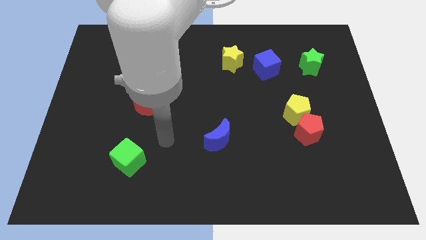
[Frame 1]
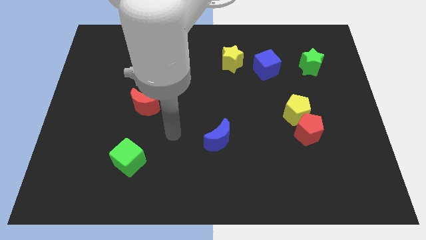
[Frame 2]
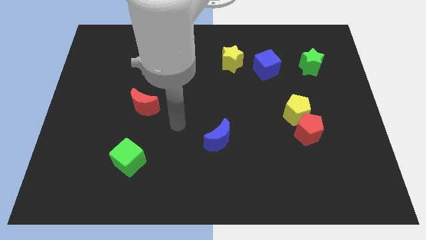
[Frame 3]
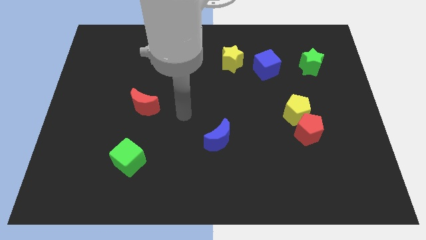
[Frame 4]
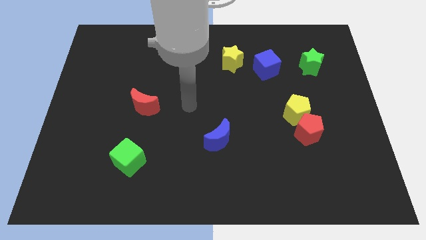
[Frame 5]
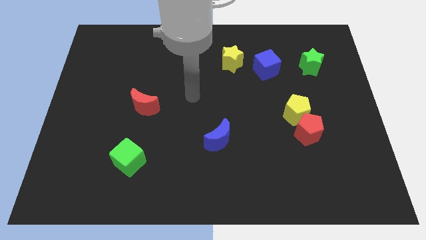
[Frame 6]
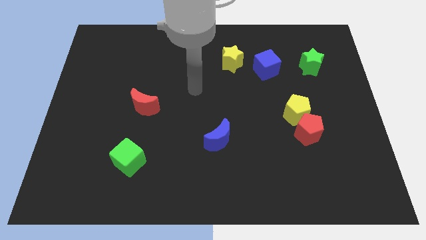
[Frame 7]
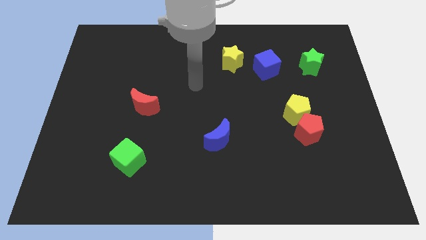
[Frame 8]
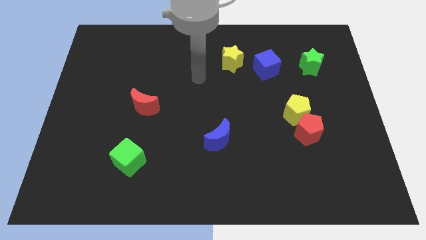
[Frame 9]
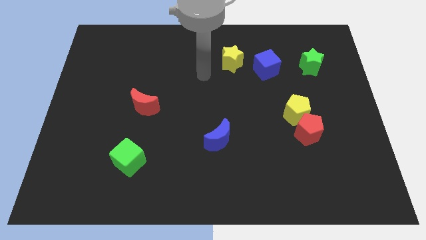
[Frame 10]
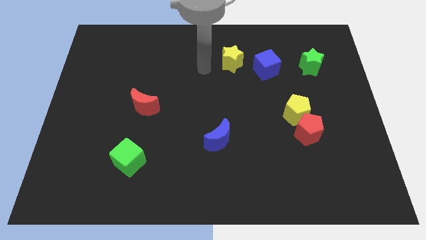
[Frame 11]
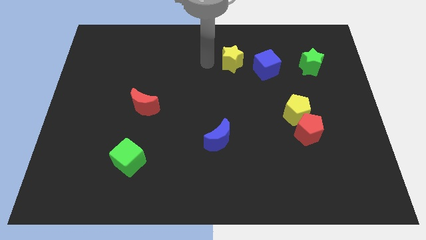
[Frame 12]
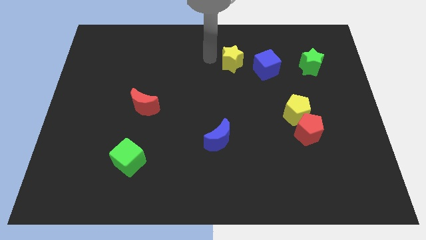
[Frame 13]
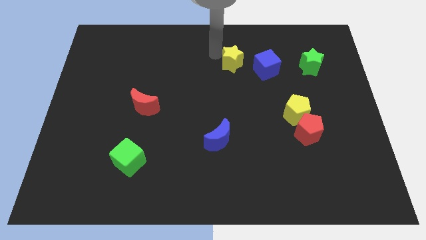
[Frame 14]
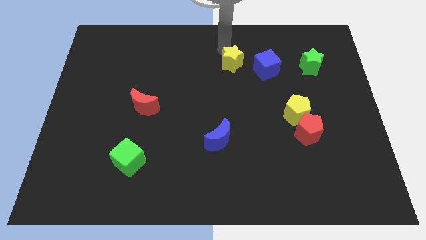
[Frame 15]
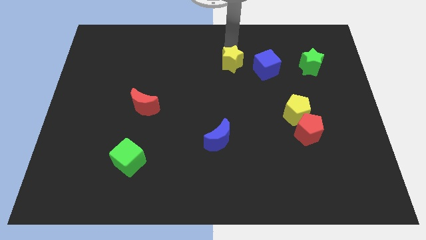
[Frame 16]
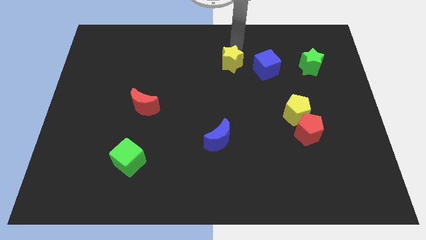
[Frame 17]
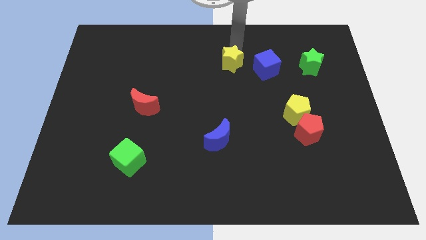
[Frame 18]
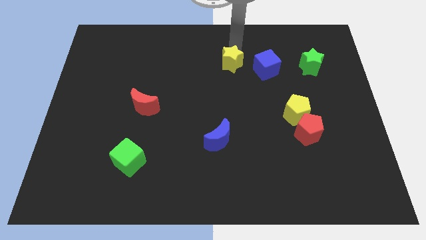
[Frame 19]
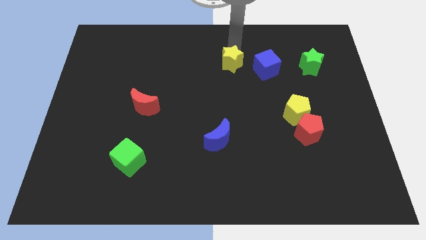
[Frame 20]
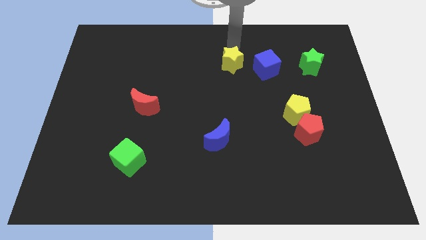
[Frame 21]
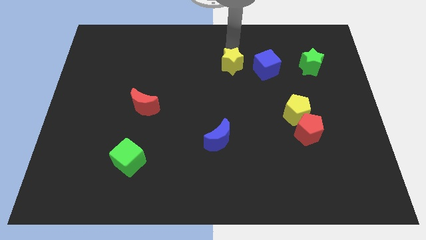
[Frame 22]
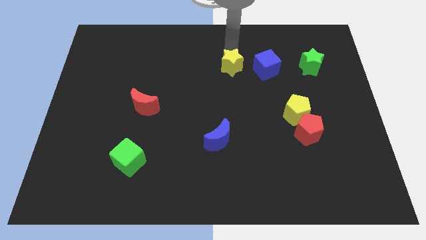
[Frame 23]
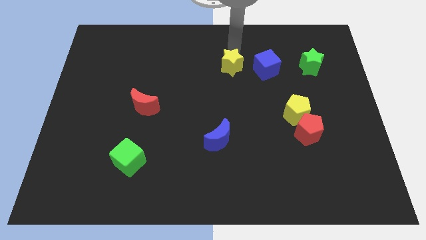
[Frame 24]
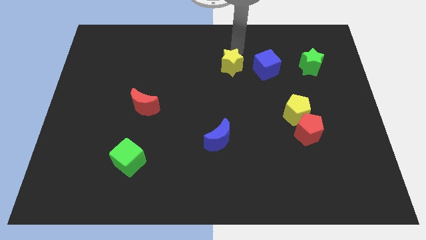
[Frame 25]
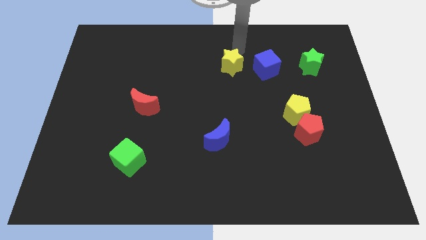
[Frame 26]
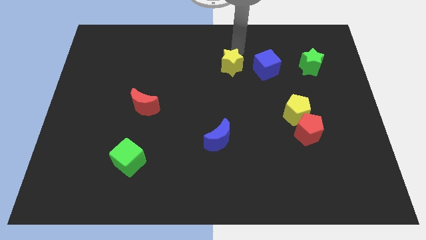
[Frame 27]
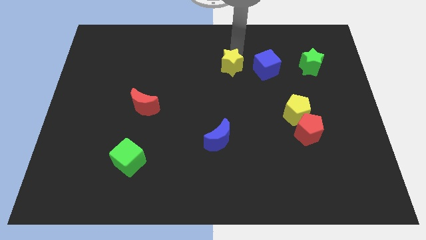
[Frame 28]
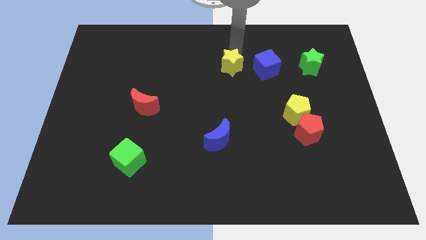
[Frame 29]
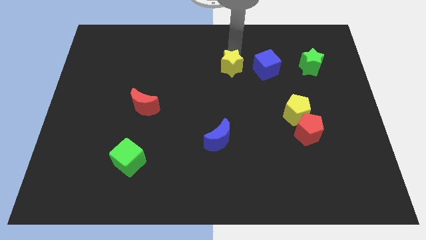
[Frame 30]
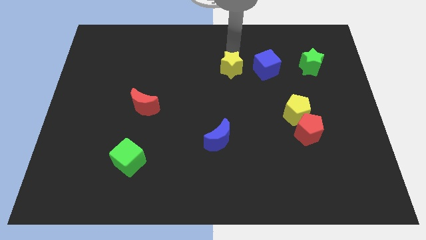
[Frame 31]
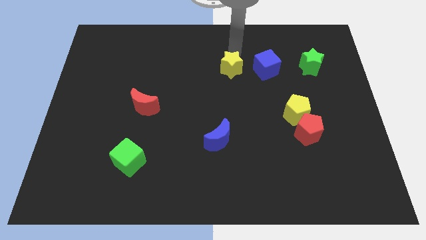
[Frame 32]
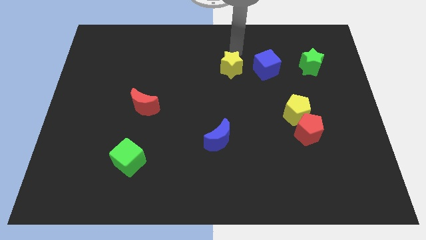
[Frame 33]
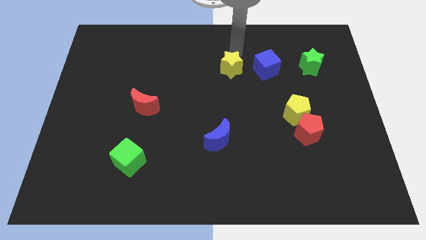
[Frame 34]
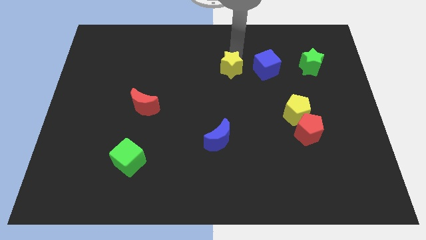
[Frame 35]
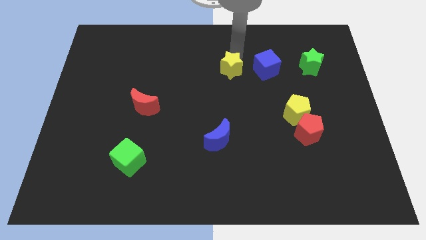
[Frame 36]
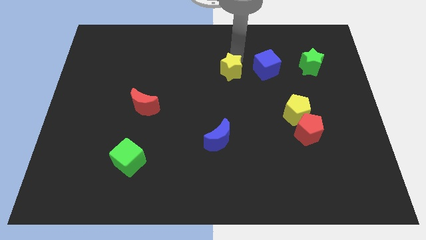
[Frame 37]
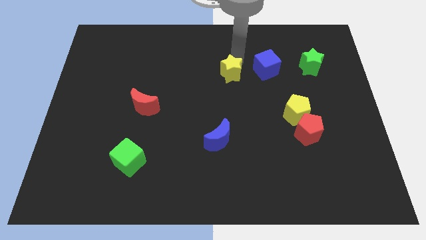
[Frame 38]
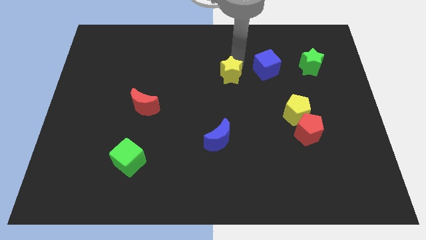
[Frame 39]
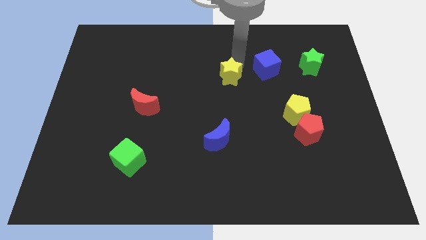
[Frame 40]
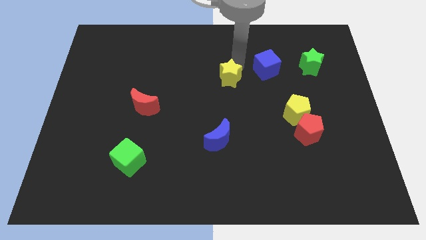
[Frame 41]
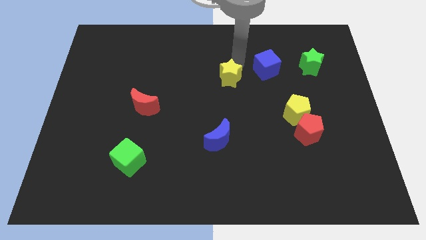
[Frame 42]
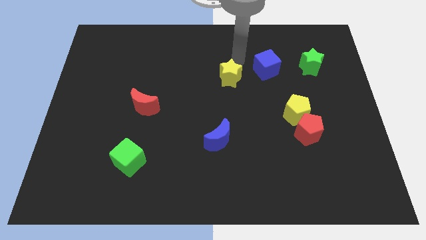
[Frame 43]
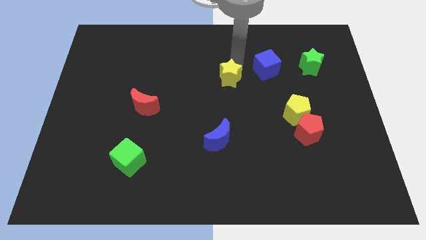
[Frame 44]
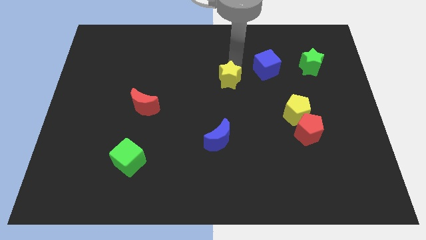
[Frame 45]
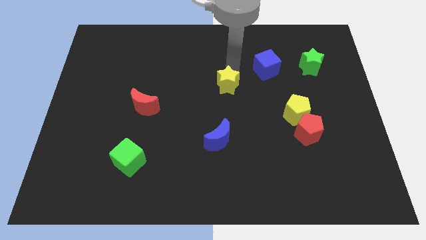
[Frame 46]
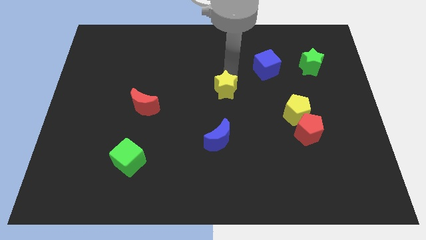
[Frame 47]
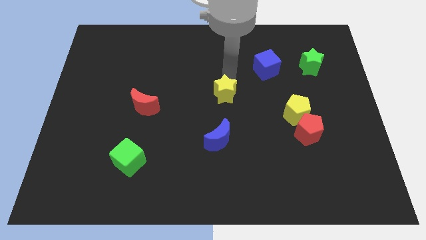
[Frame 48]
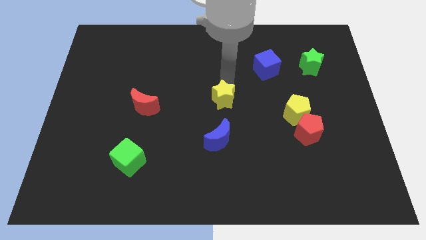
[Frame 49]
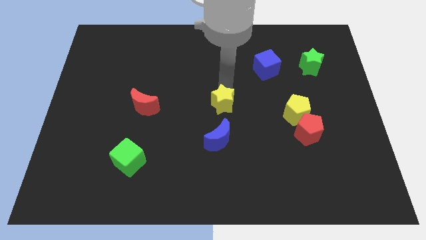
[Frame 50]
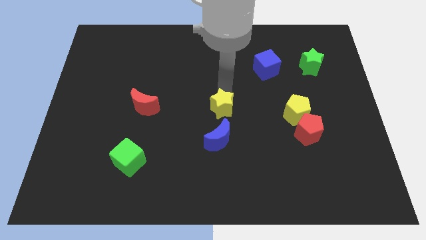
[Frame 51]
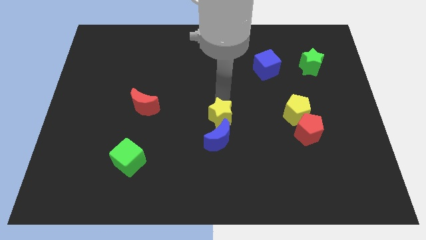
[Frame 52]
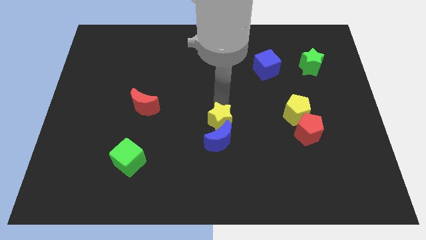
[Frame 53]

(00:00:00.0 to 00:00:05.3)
move the yellow star next to the blue moon
